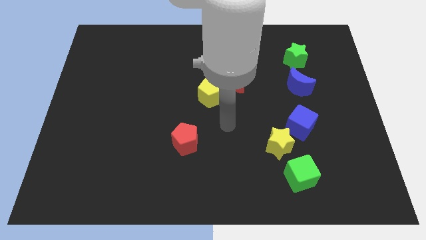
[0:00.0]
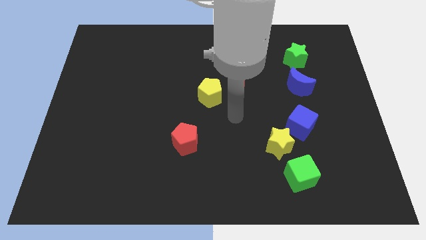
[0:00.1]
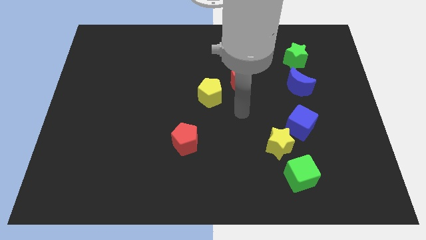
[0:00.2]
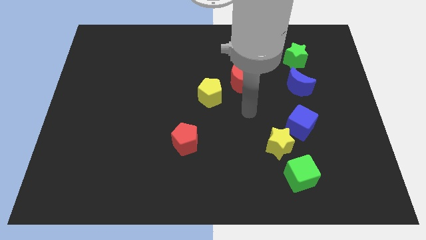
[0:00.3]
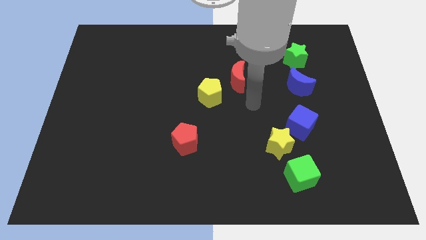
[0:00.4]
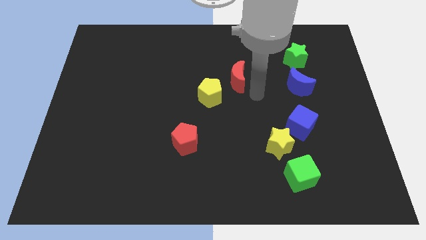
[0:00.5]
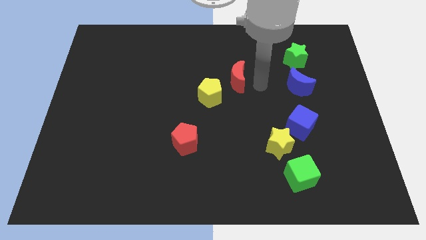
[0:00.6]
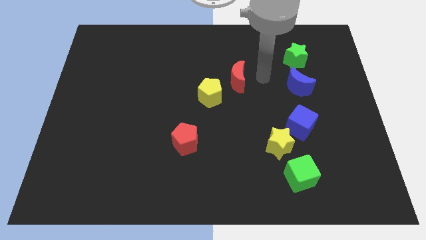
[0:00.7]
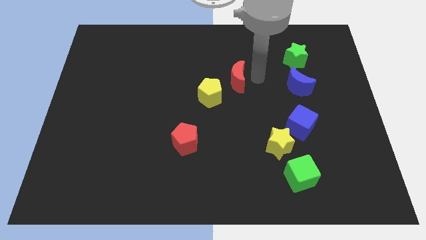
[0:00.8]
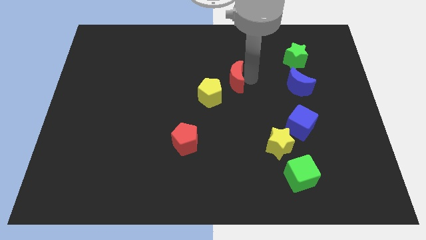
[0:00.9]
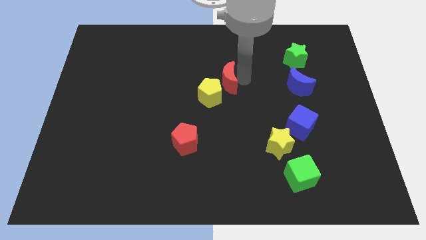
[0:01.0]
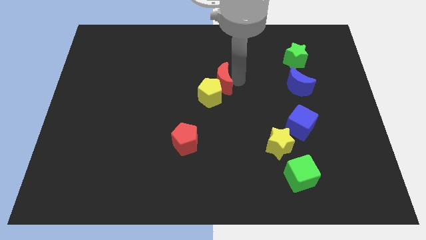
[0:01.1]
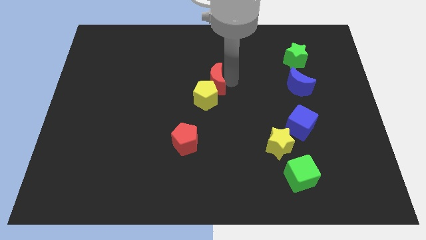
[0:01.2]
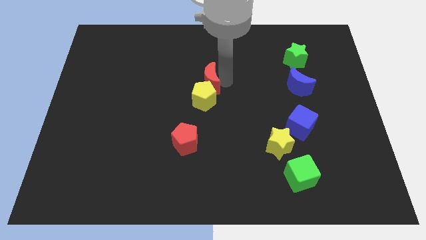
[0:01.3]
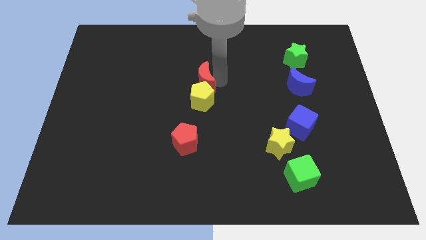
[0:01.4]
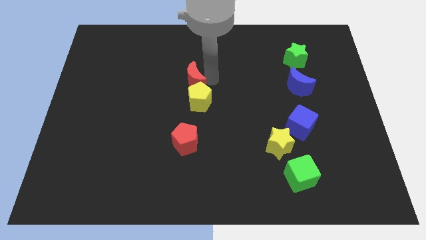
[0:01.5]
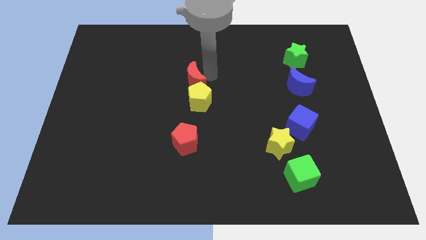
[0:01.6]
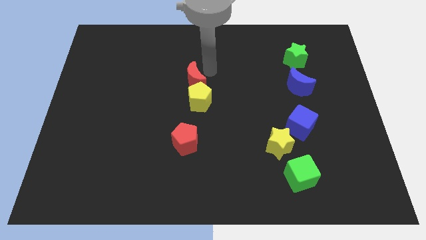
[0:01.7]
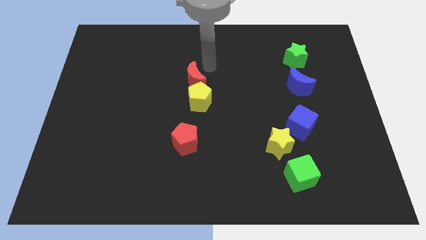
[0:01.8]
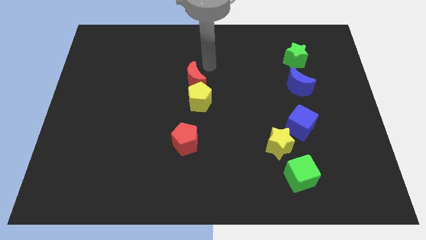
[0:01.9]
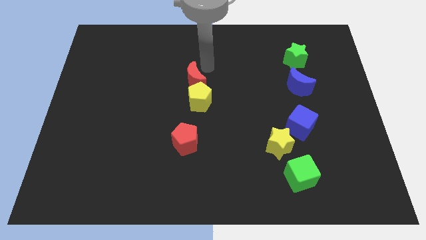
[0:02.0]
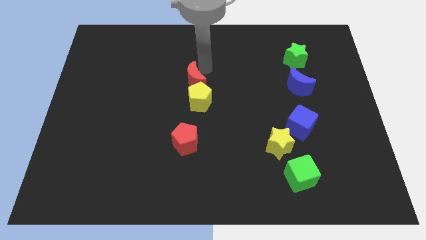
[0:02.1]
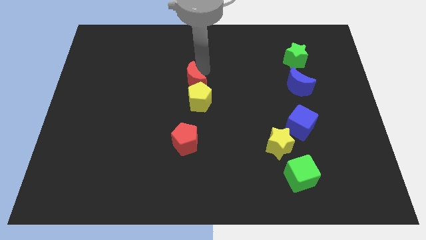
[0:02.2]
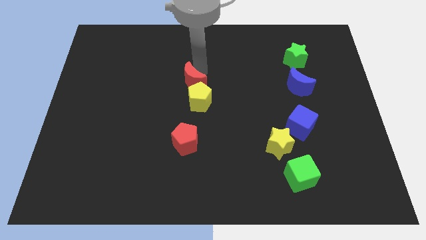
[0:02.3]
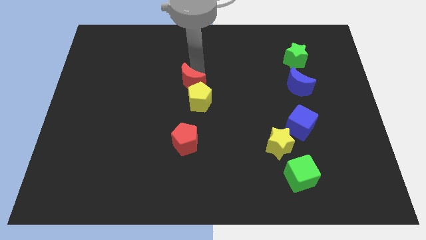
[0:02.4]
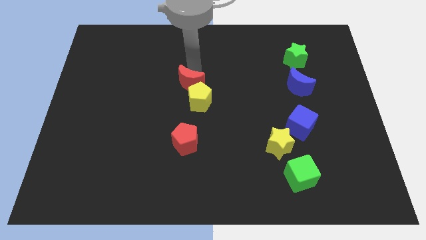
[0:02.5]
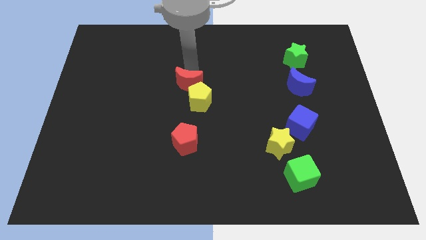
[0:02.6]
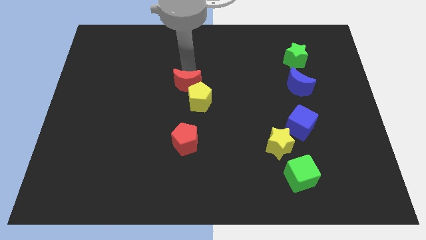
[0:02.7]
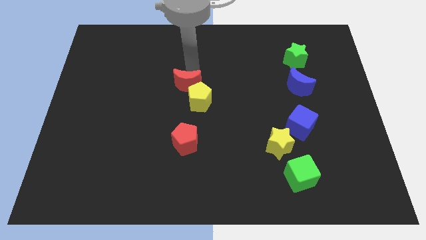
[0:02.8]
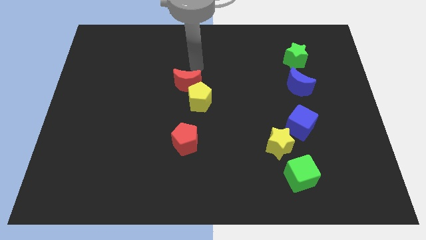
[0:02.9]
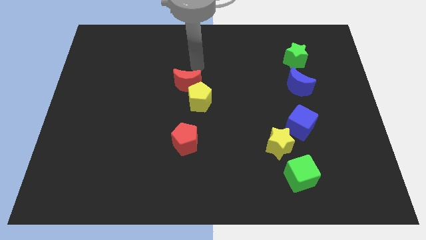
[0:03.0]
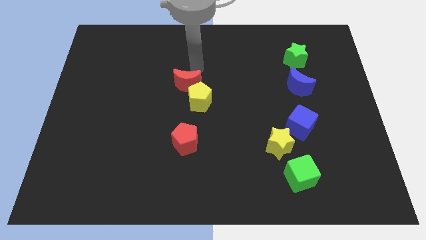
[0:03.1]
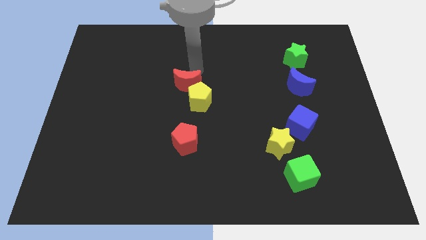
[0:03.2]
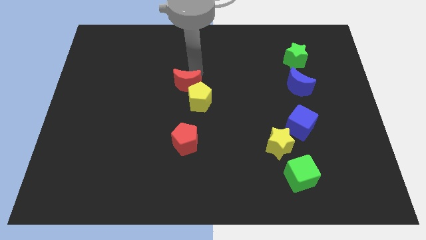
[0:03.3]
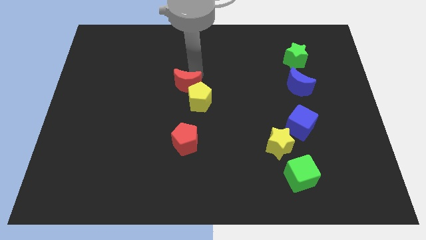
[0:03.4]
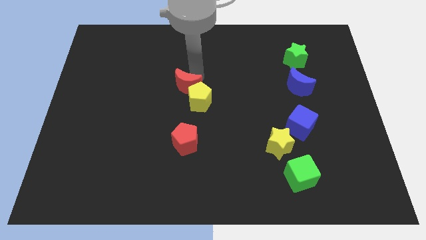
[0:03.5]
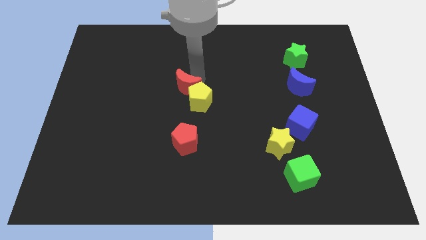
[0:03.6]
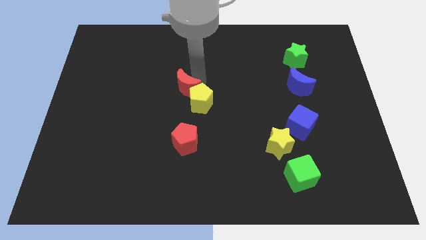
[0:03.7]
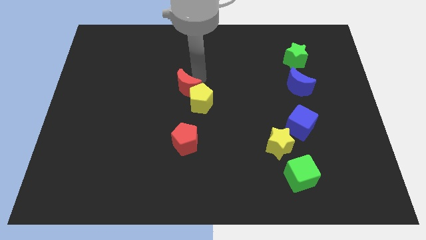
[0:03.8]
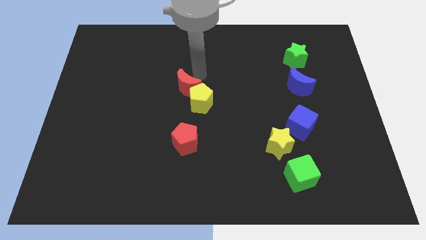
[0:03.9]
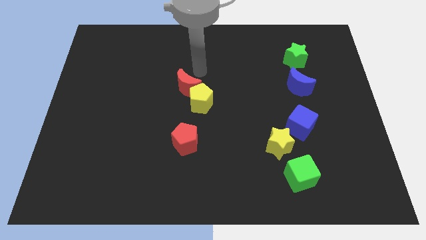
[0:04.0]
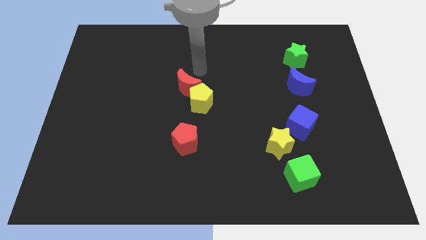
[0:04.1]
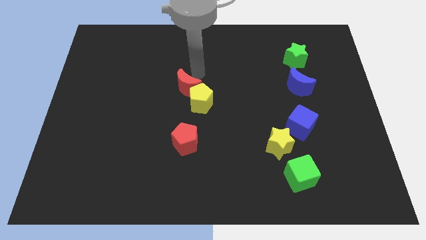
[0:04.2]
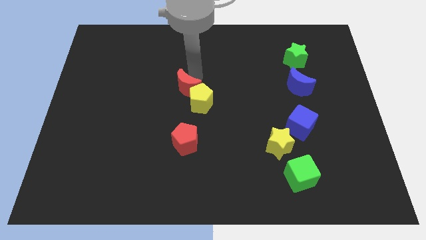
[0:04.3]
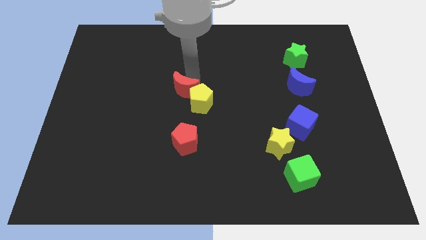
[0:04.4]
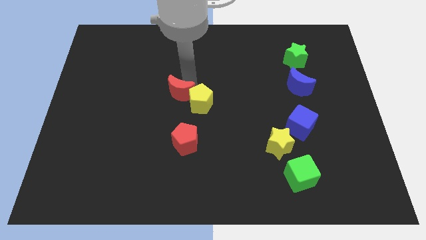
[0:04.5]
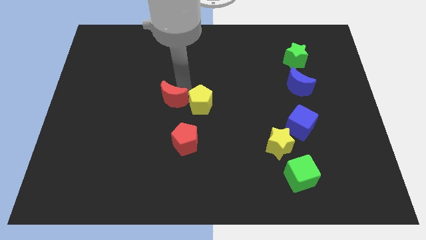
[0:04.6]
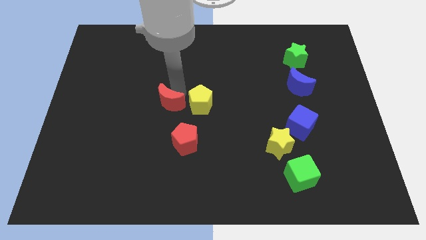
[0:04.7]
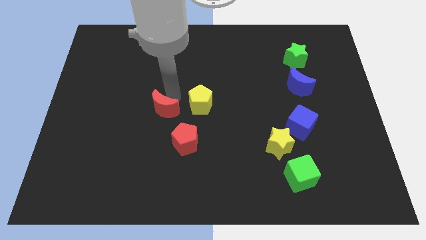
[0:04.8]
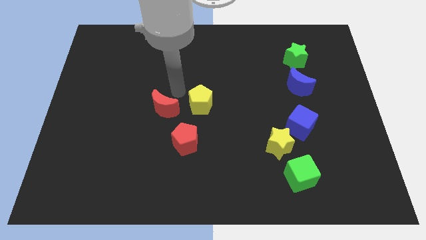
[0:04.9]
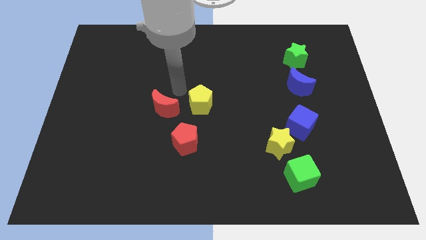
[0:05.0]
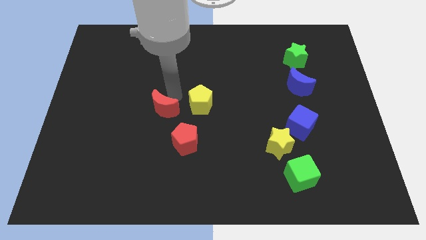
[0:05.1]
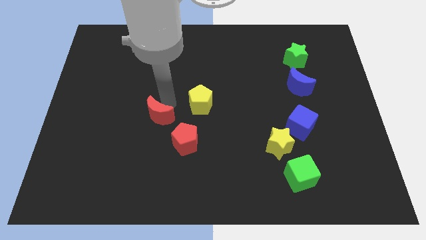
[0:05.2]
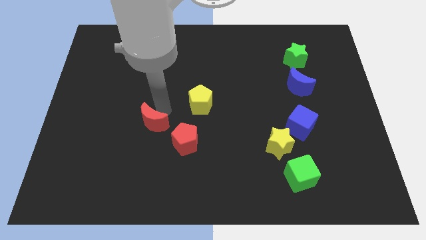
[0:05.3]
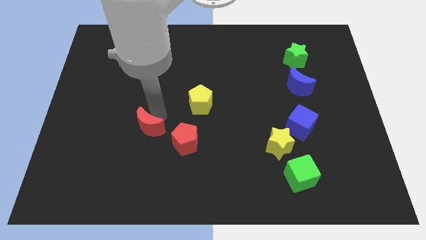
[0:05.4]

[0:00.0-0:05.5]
put the red moon to the left side of the red pentagon

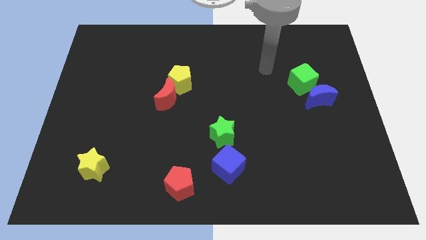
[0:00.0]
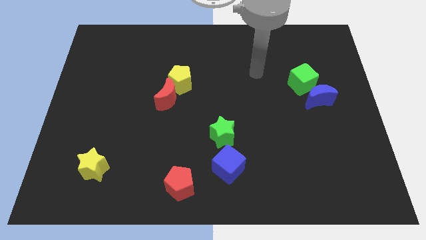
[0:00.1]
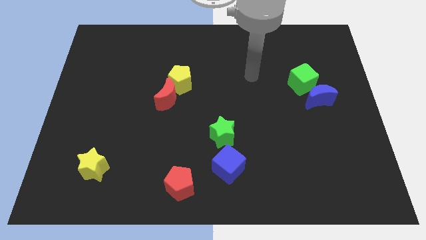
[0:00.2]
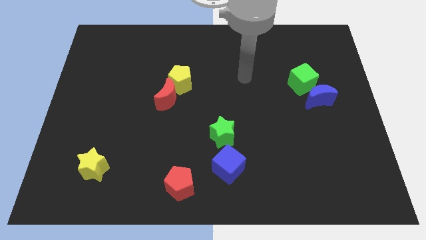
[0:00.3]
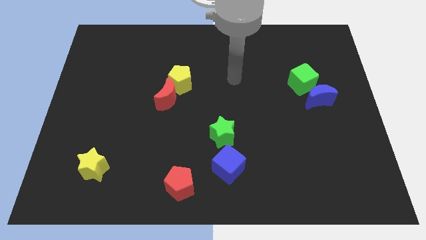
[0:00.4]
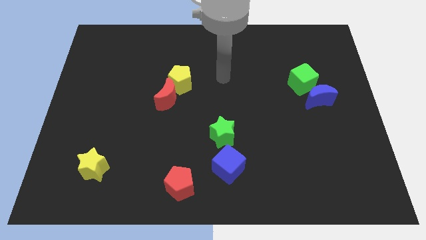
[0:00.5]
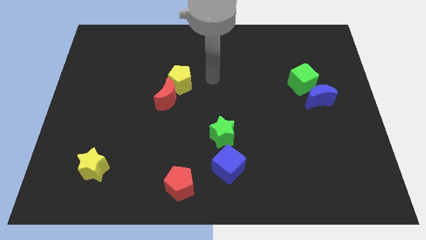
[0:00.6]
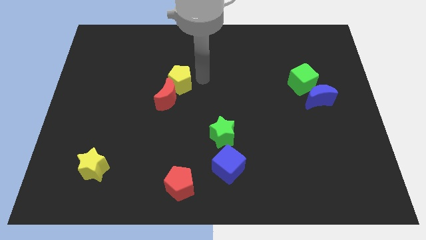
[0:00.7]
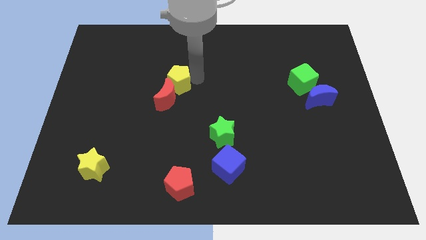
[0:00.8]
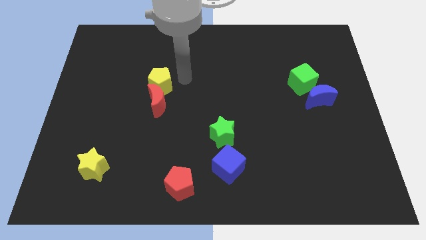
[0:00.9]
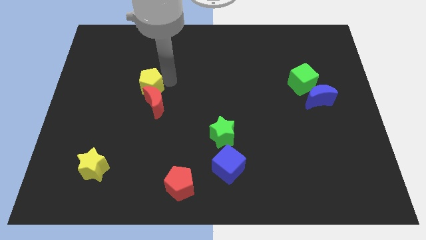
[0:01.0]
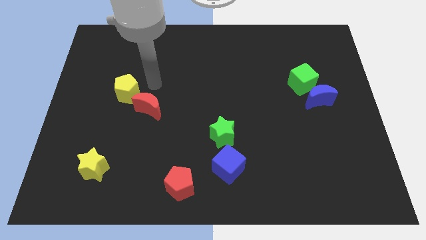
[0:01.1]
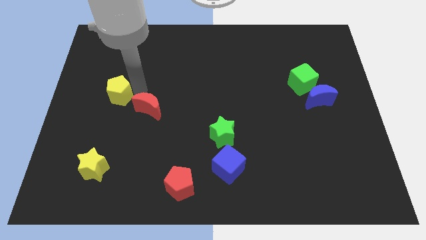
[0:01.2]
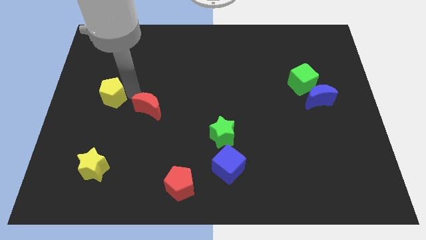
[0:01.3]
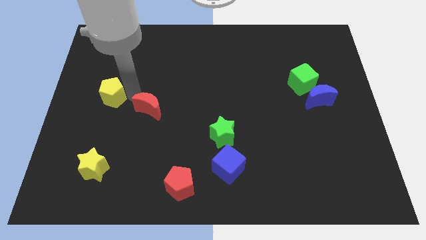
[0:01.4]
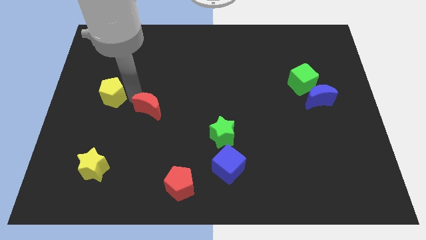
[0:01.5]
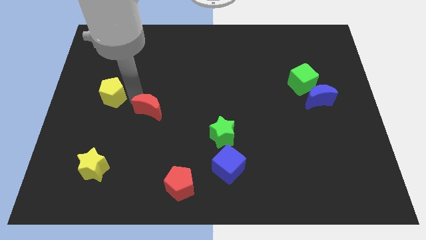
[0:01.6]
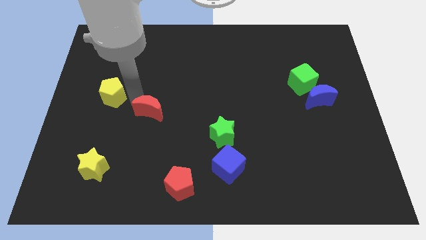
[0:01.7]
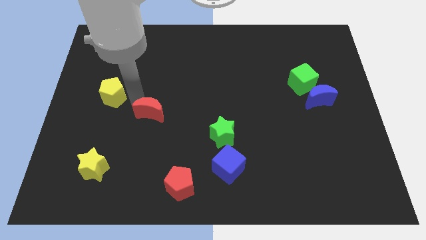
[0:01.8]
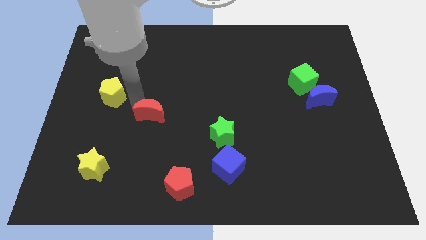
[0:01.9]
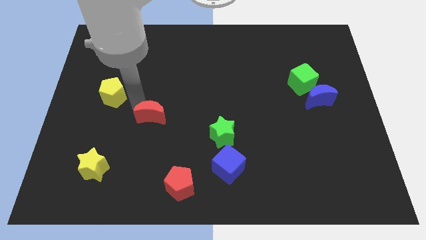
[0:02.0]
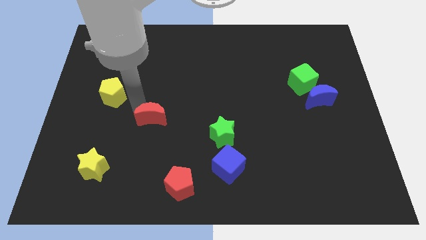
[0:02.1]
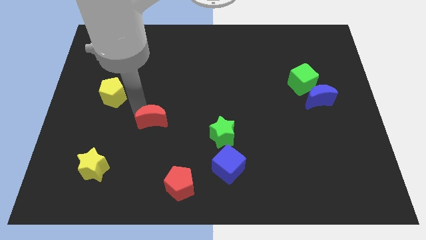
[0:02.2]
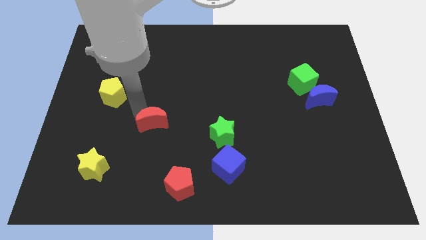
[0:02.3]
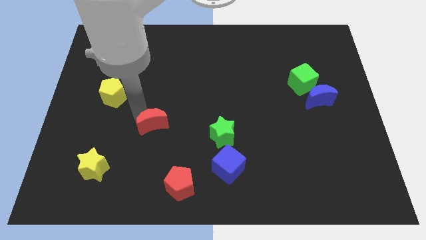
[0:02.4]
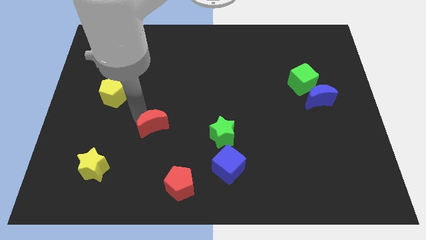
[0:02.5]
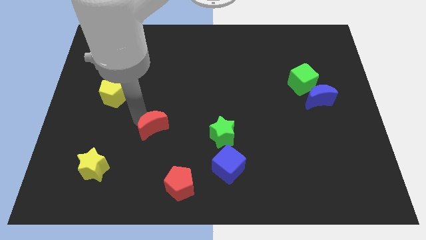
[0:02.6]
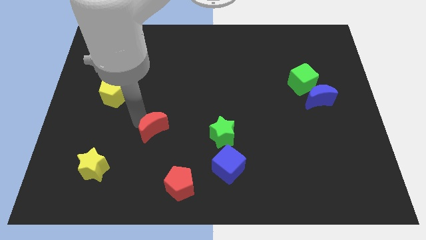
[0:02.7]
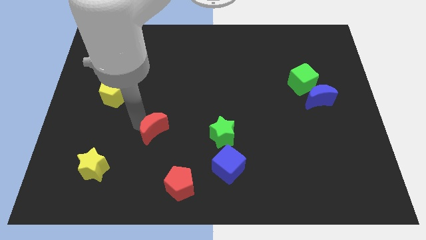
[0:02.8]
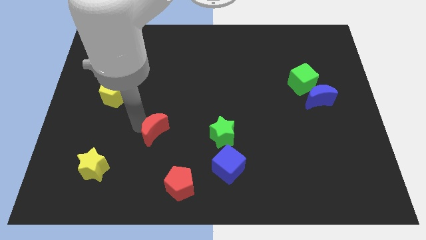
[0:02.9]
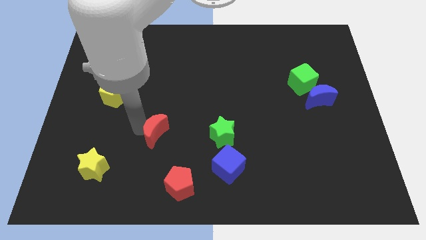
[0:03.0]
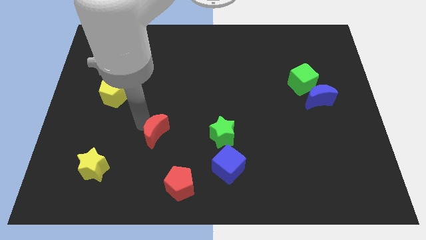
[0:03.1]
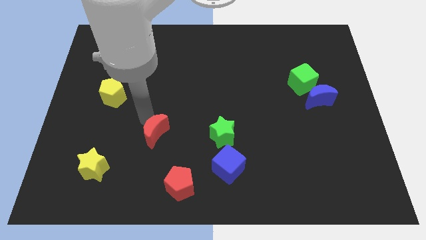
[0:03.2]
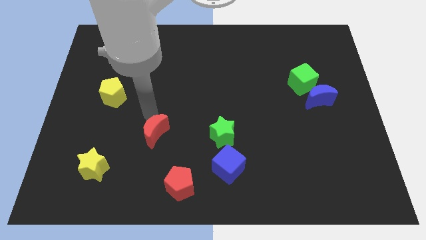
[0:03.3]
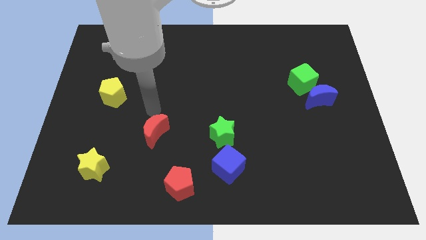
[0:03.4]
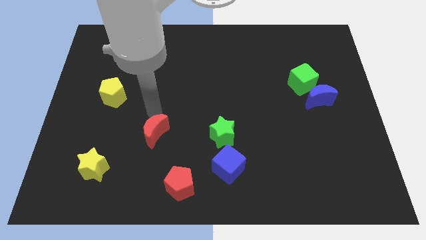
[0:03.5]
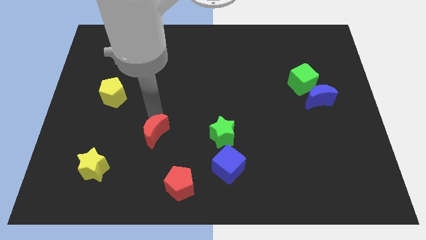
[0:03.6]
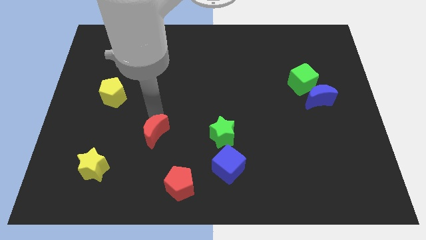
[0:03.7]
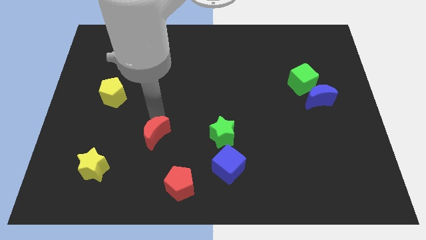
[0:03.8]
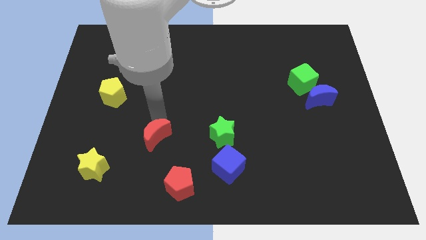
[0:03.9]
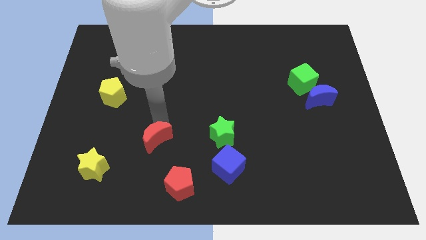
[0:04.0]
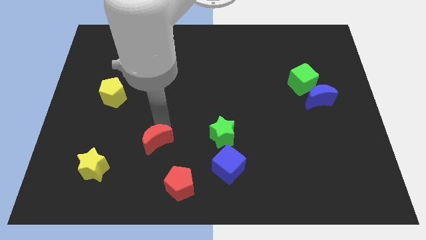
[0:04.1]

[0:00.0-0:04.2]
push the red moon diagonally up and to the left of the red pentagon
